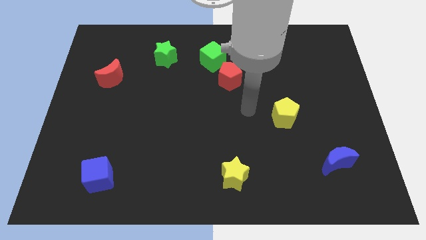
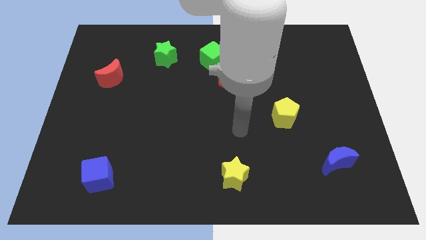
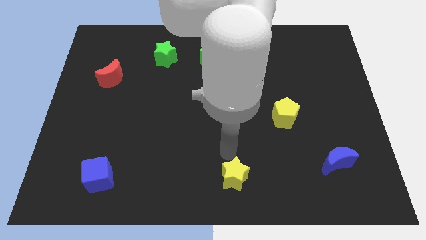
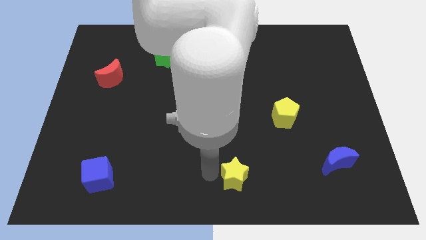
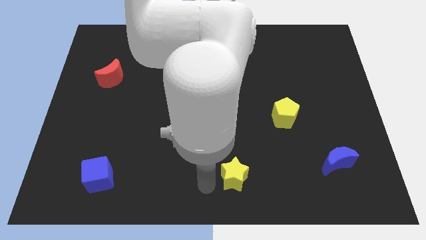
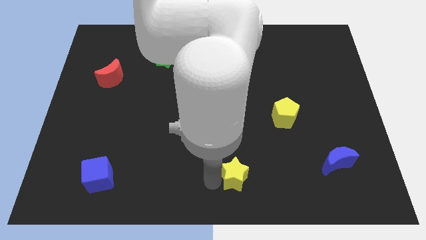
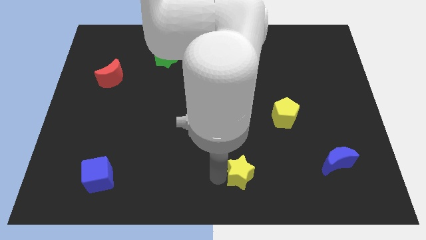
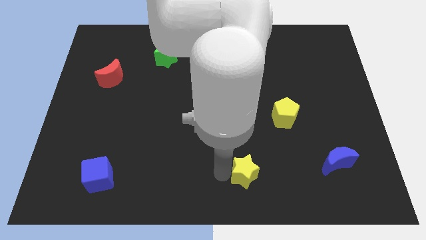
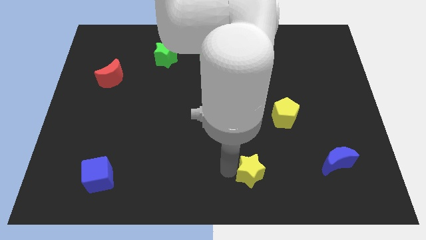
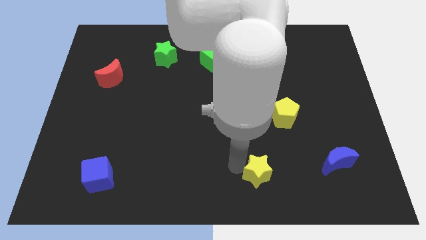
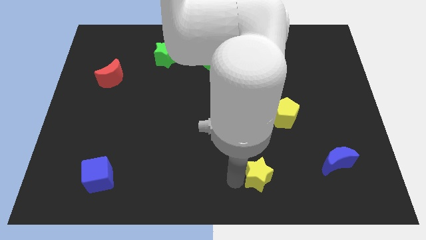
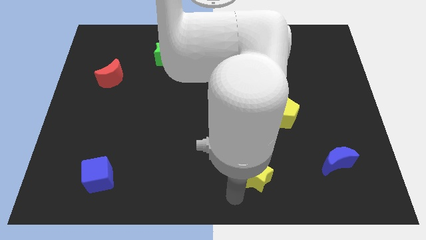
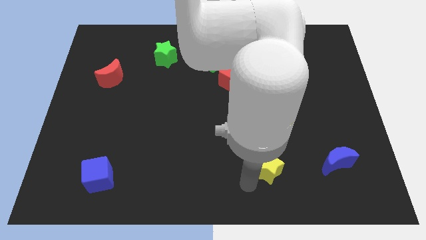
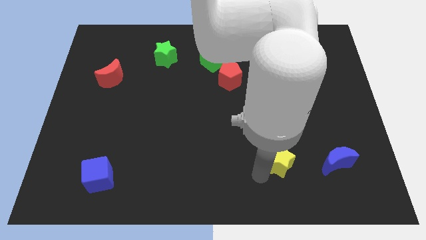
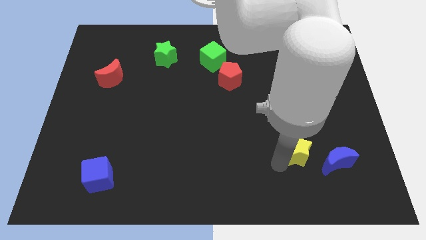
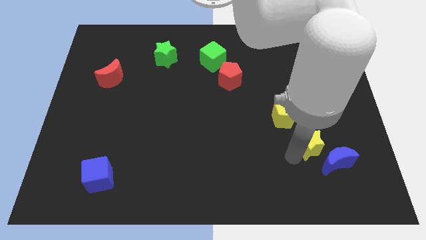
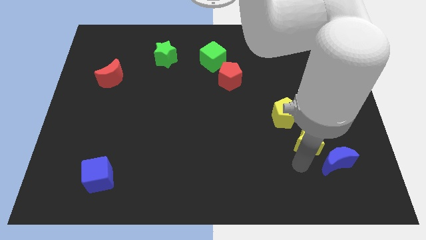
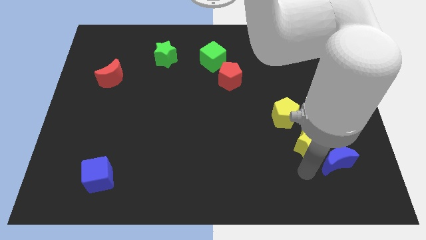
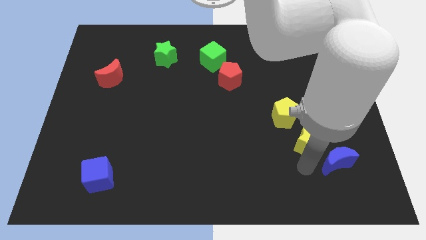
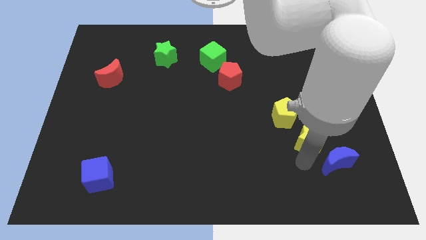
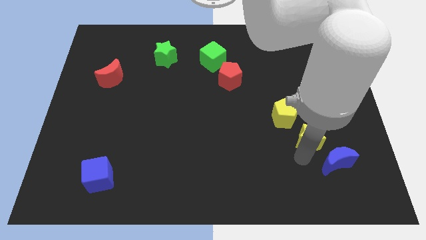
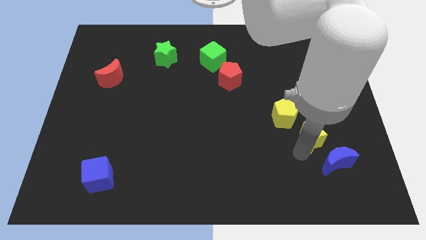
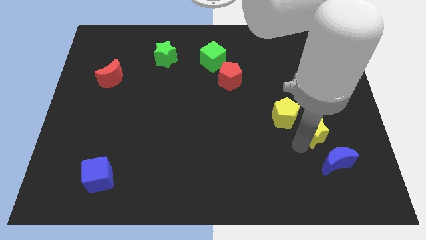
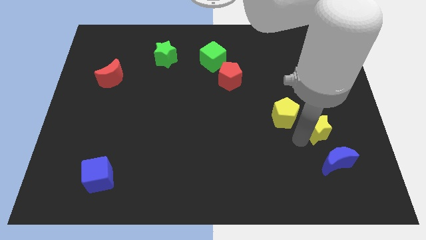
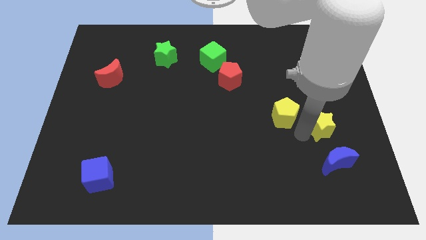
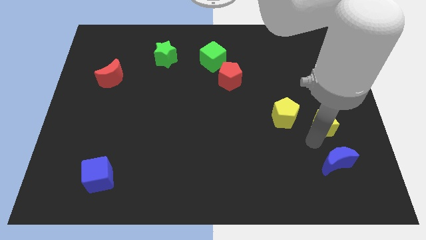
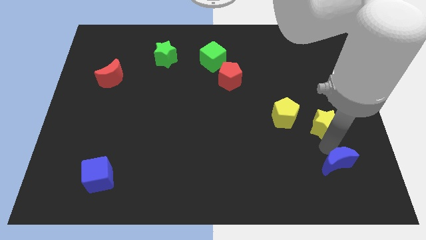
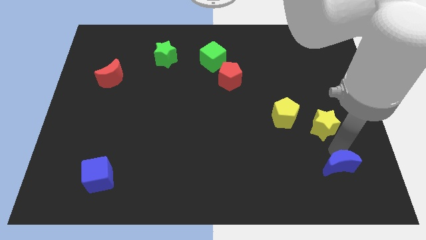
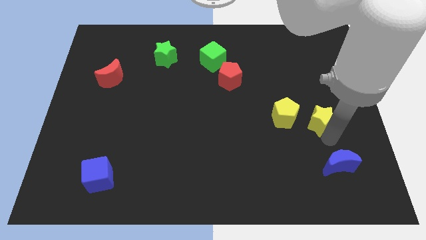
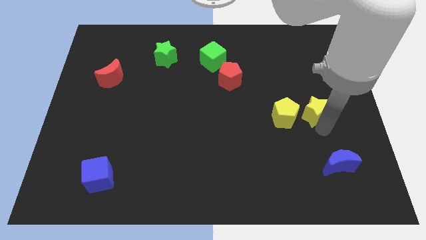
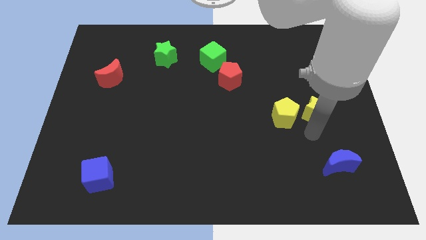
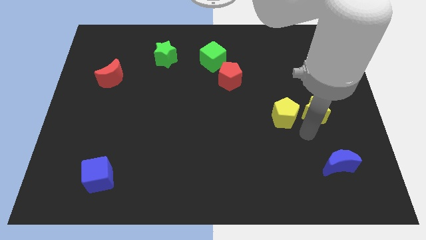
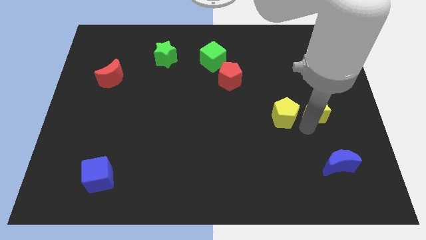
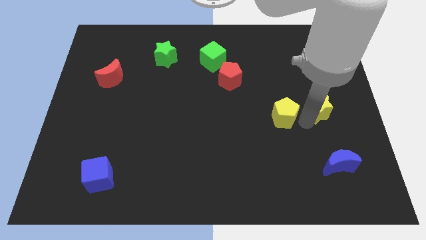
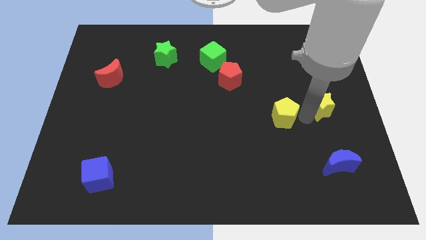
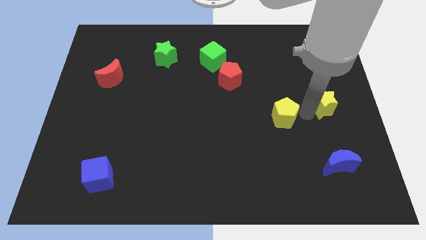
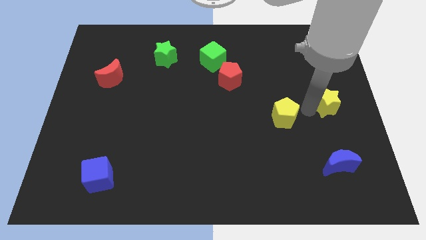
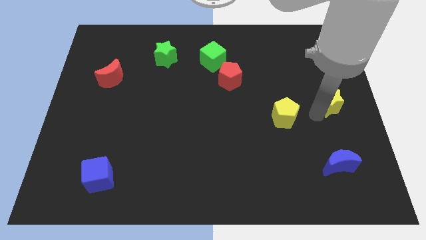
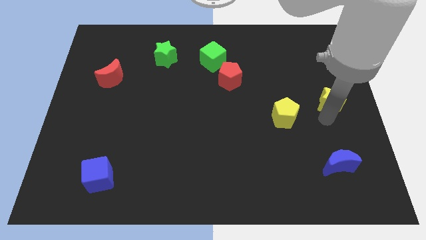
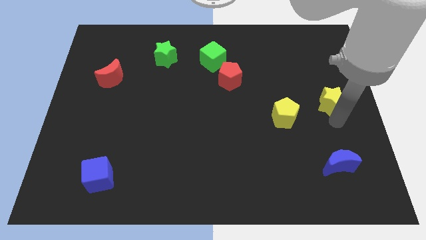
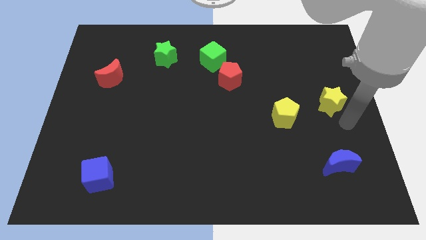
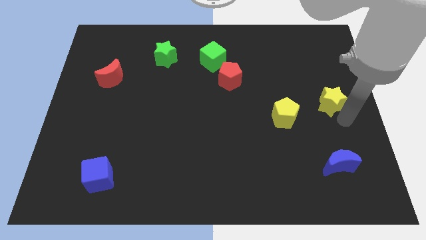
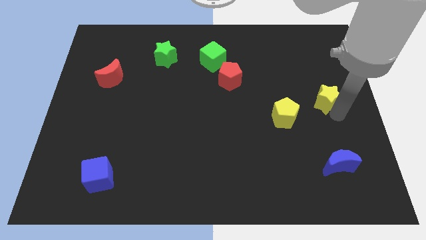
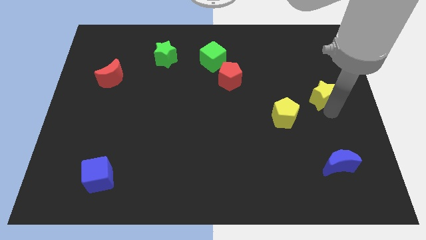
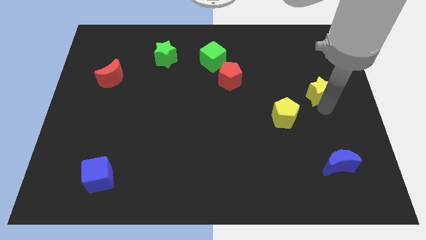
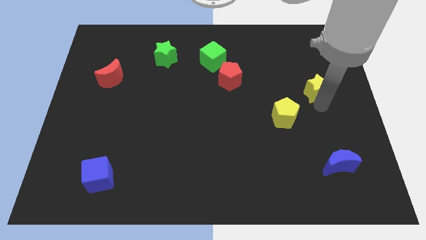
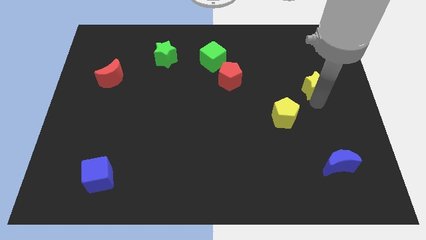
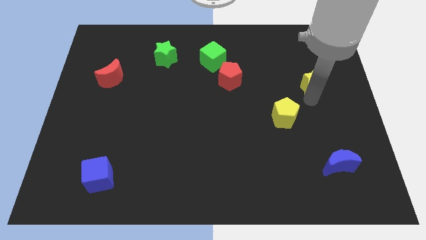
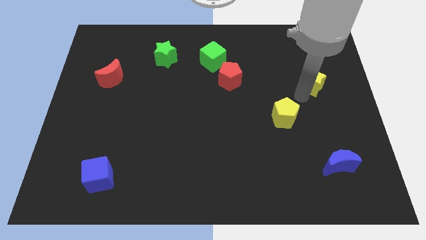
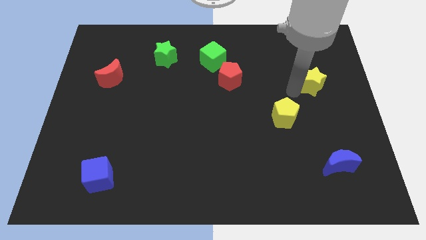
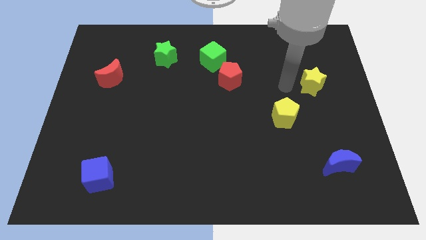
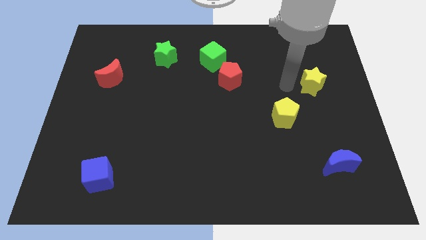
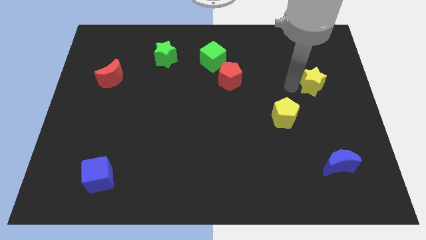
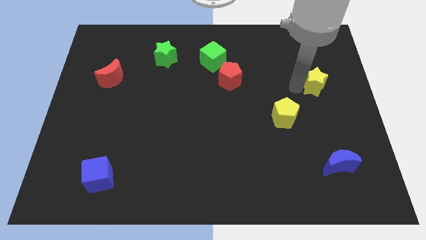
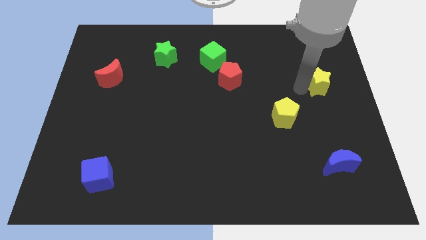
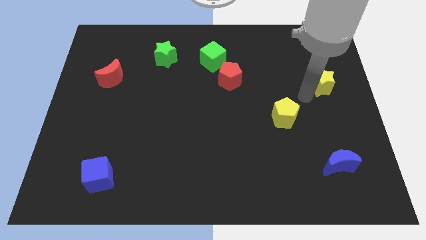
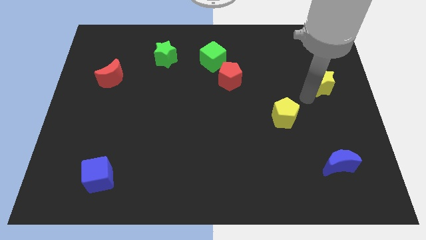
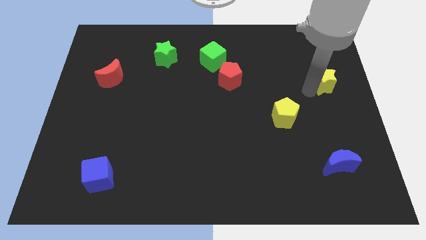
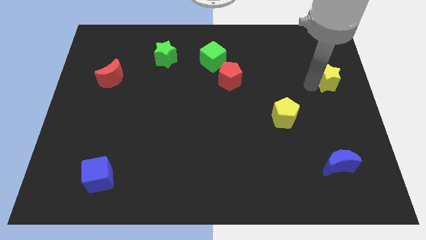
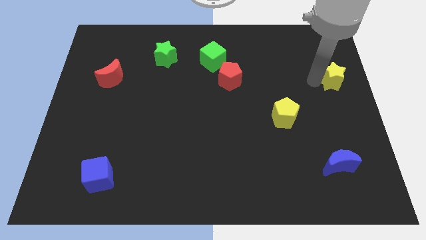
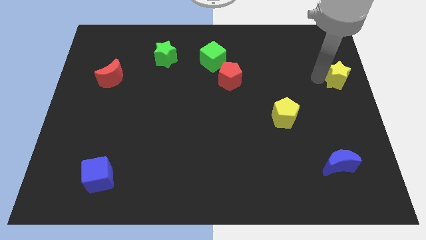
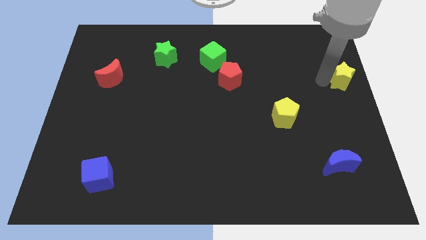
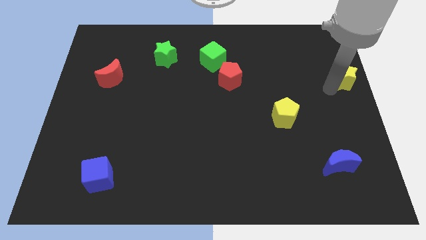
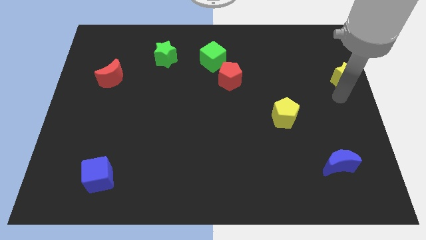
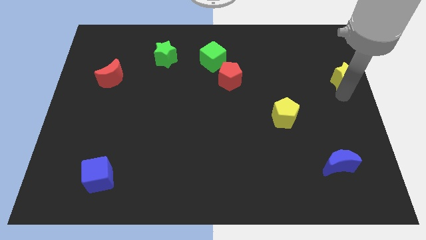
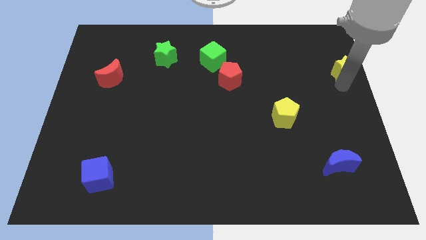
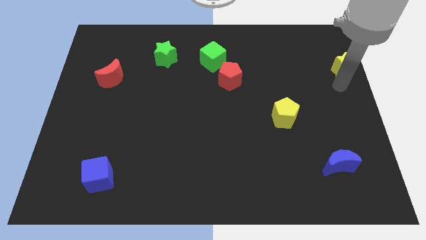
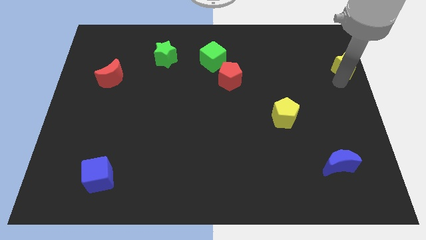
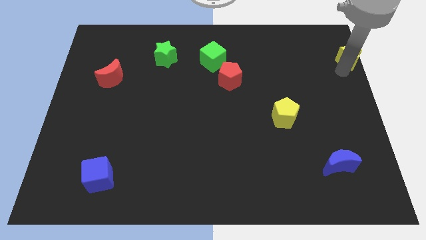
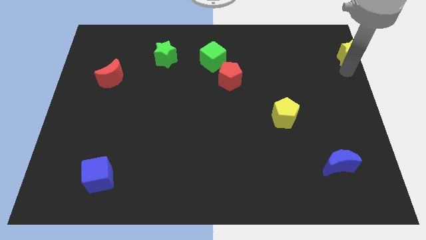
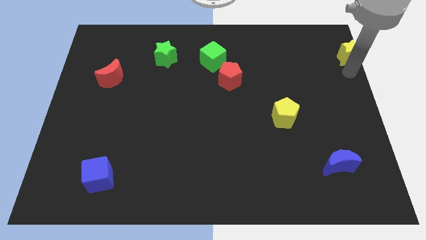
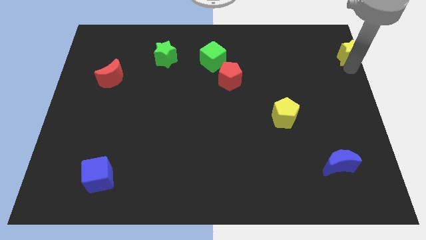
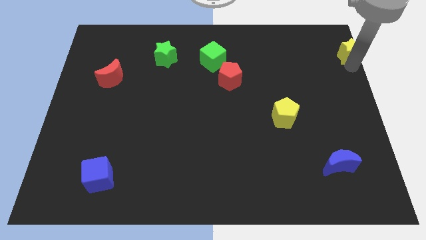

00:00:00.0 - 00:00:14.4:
push the yellow star to the top right of the board
